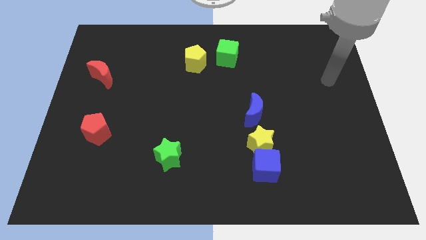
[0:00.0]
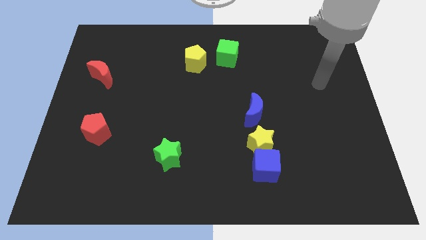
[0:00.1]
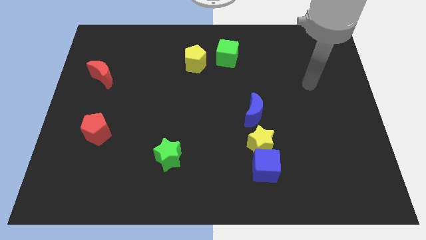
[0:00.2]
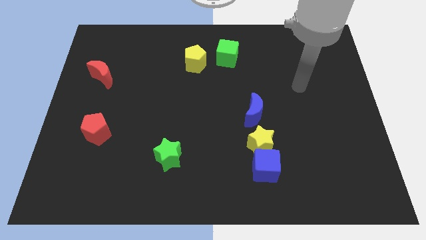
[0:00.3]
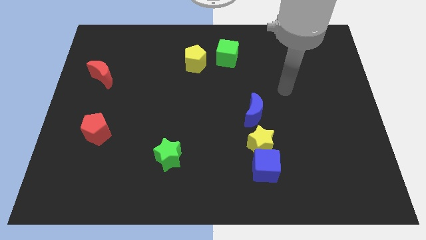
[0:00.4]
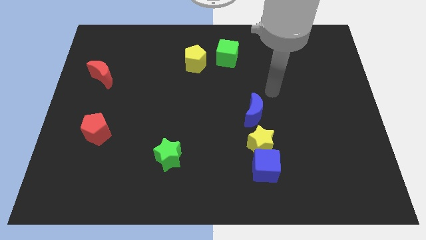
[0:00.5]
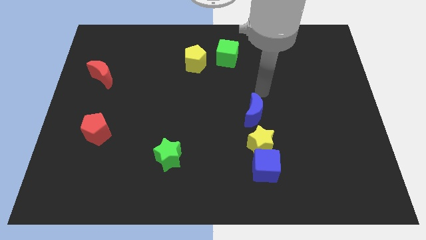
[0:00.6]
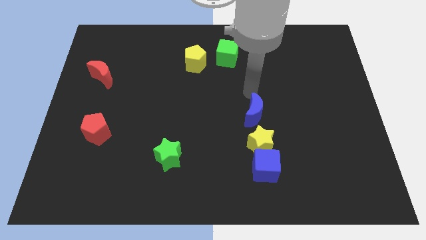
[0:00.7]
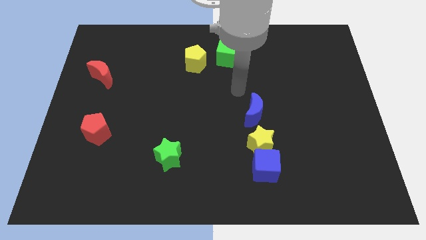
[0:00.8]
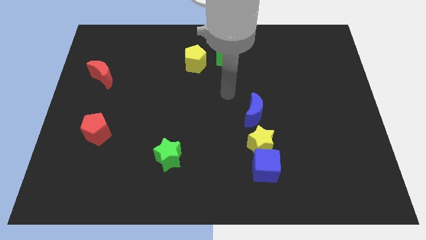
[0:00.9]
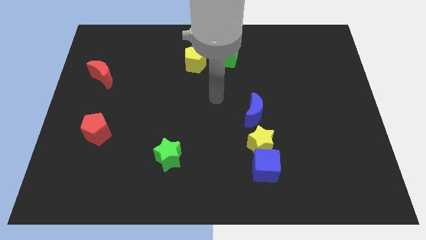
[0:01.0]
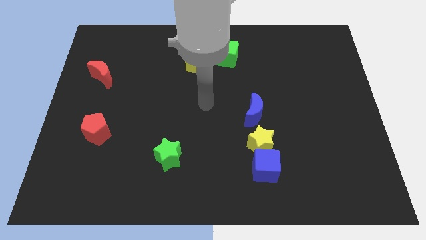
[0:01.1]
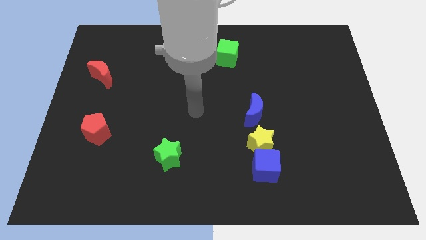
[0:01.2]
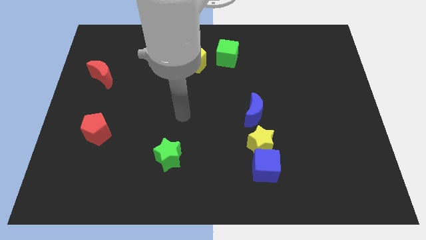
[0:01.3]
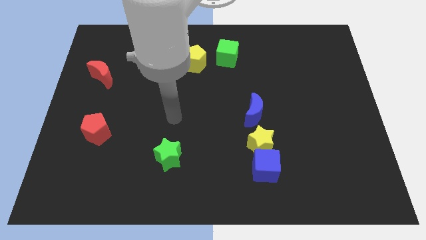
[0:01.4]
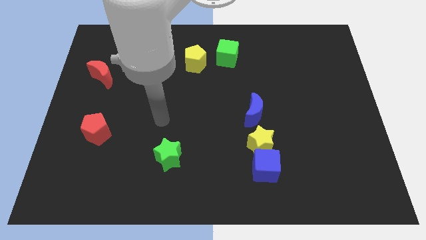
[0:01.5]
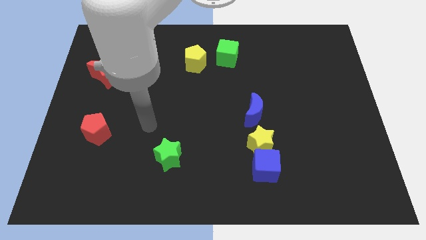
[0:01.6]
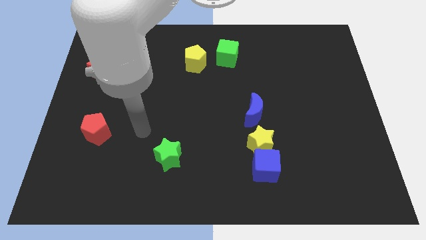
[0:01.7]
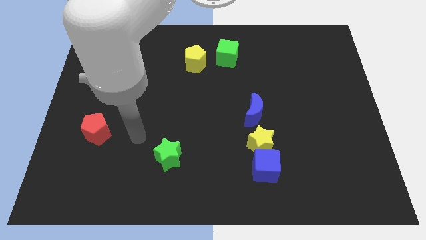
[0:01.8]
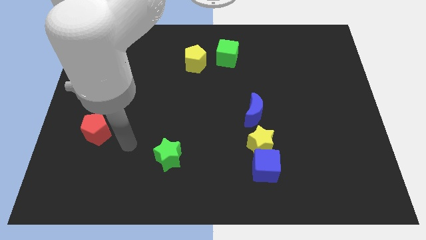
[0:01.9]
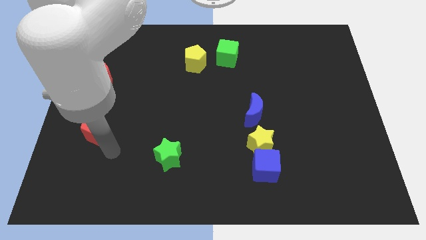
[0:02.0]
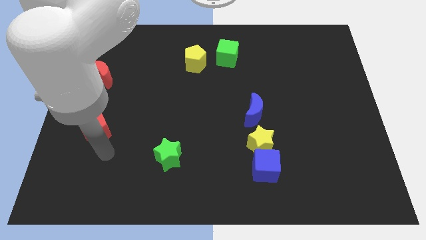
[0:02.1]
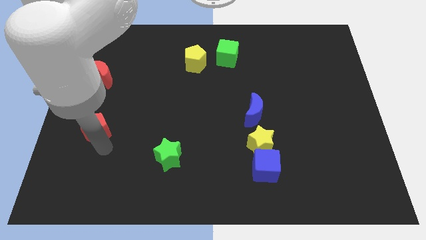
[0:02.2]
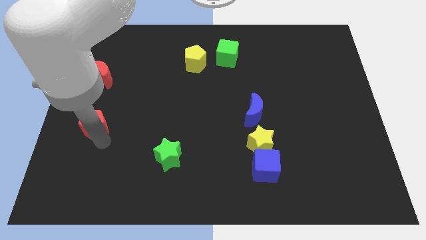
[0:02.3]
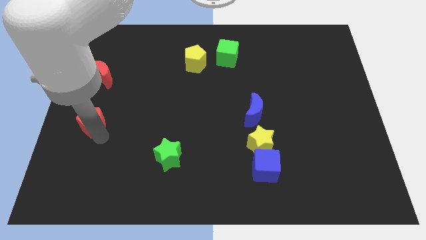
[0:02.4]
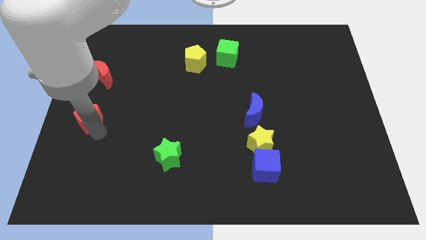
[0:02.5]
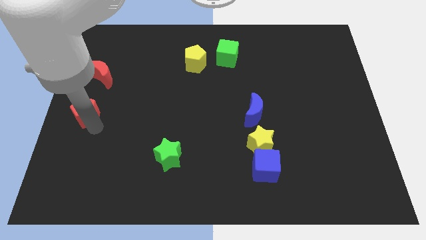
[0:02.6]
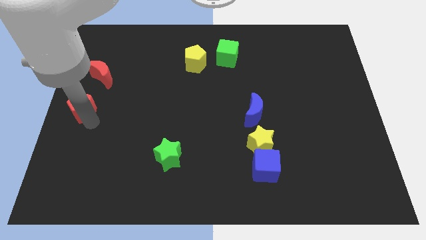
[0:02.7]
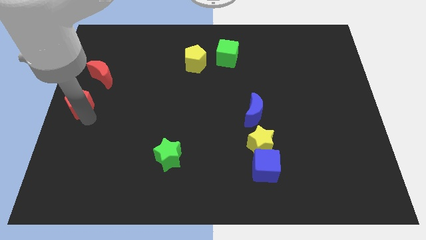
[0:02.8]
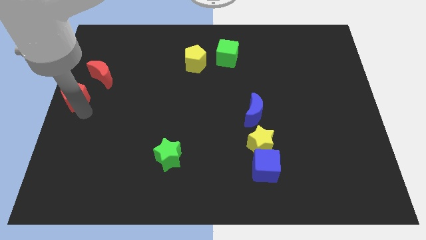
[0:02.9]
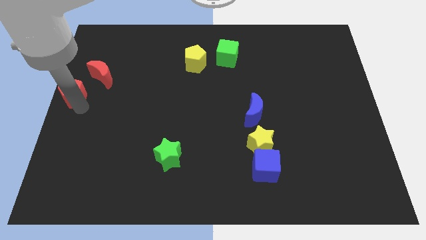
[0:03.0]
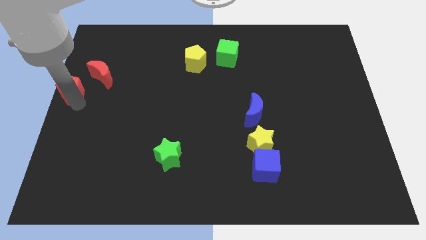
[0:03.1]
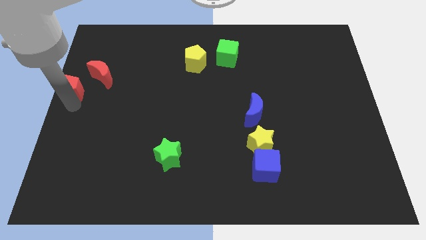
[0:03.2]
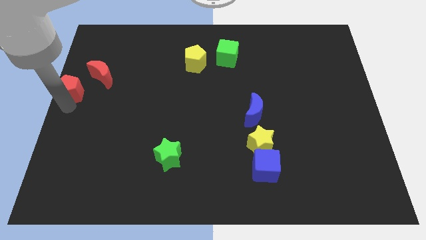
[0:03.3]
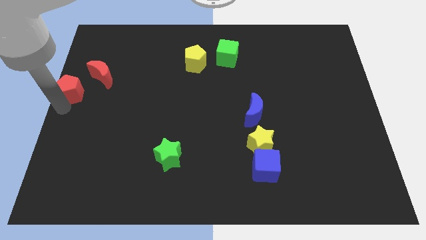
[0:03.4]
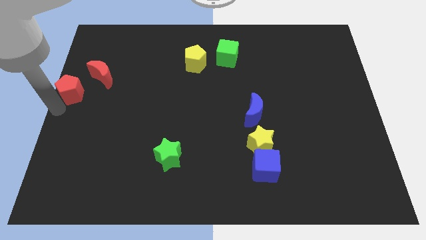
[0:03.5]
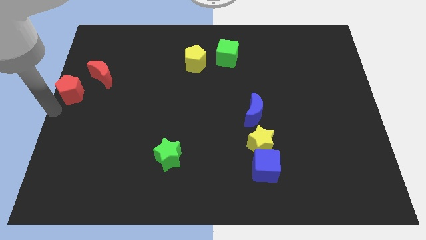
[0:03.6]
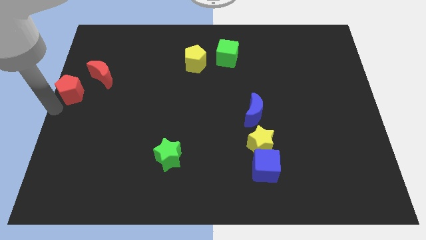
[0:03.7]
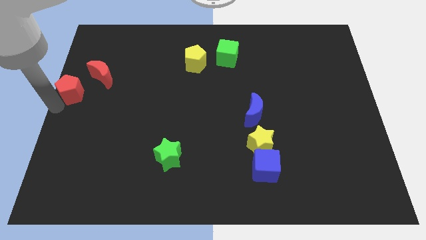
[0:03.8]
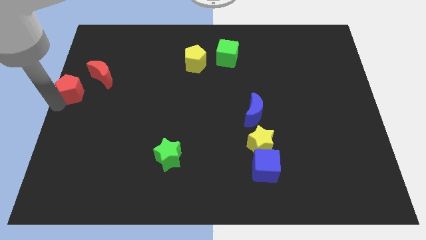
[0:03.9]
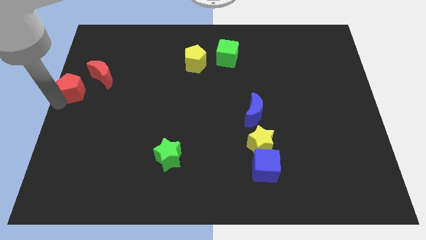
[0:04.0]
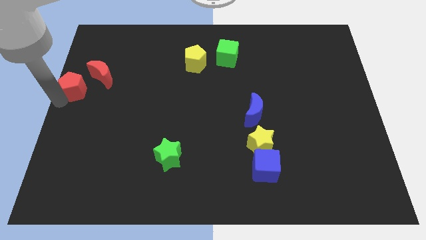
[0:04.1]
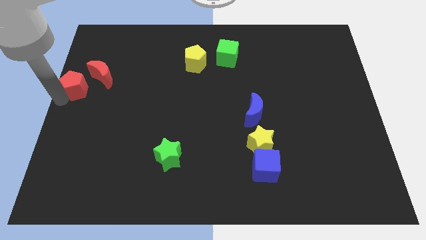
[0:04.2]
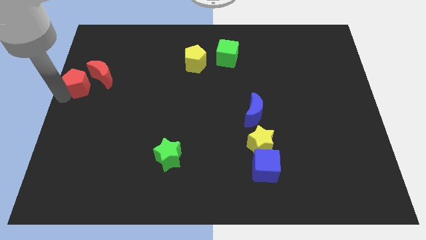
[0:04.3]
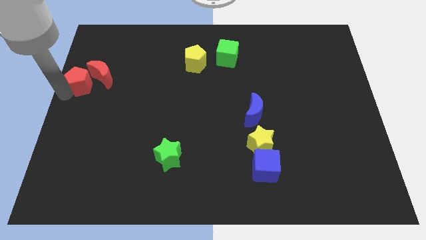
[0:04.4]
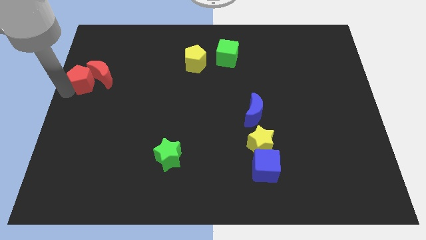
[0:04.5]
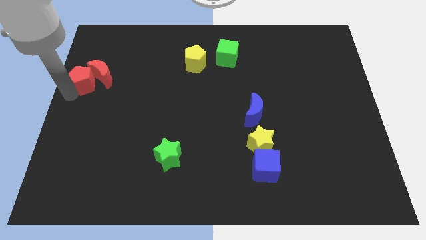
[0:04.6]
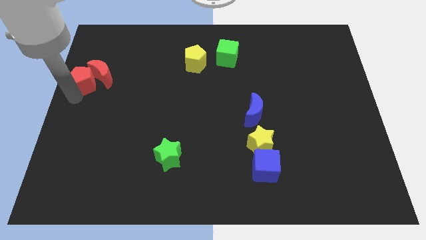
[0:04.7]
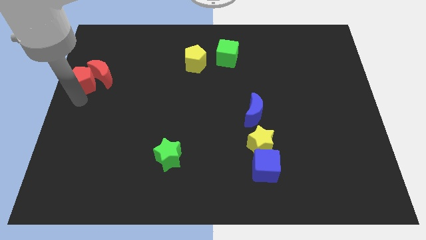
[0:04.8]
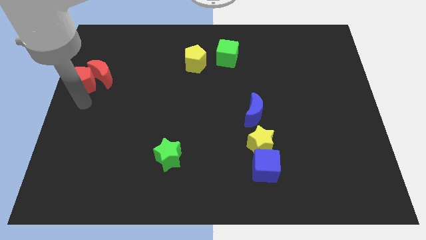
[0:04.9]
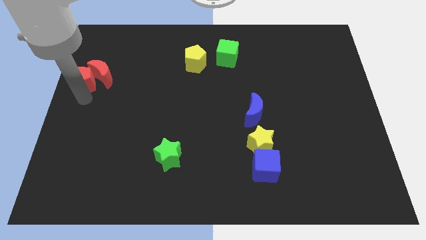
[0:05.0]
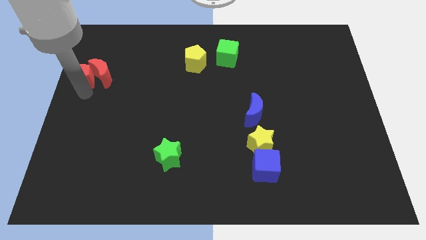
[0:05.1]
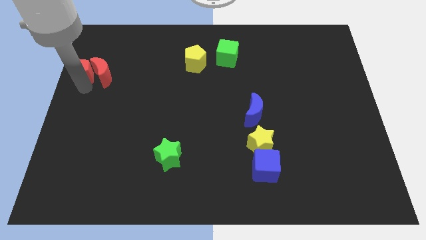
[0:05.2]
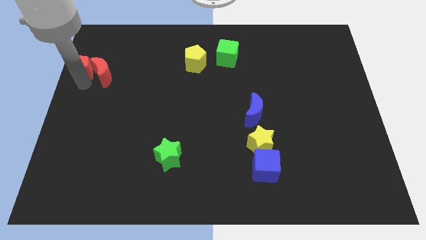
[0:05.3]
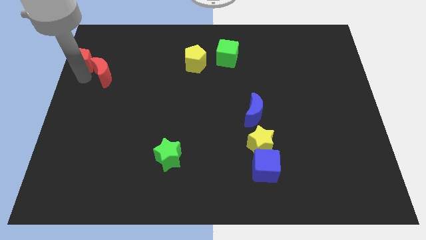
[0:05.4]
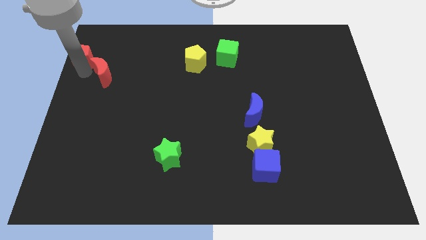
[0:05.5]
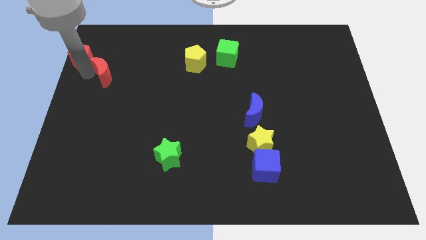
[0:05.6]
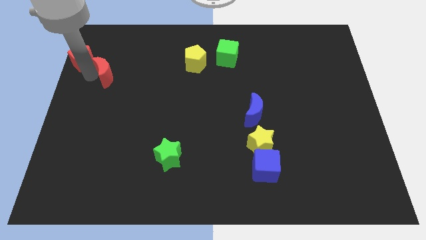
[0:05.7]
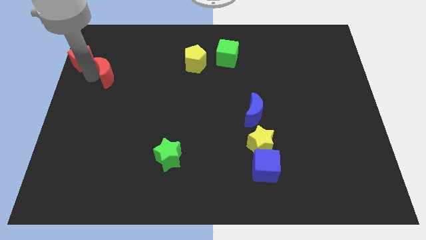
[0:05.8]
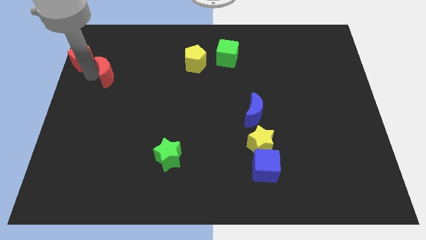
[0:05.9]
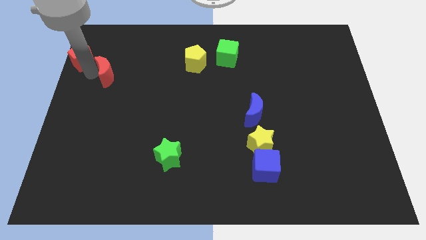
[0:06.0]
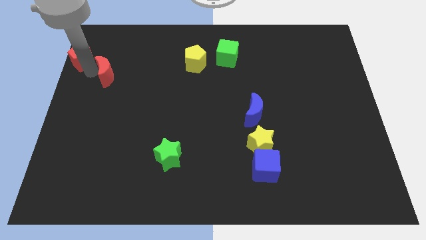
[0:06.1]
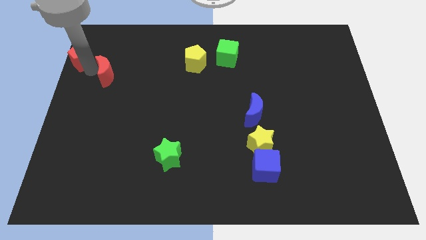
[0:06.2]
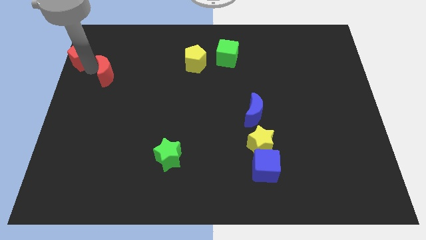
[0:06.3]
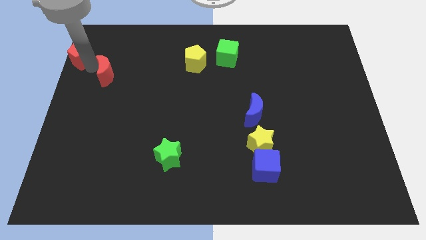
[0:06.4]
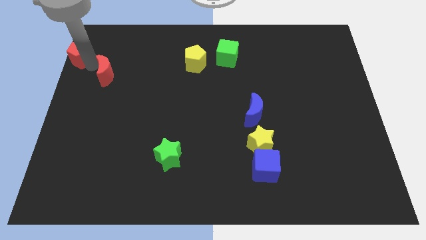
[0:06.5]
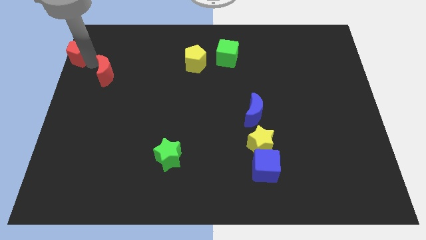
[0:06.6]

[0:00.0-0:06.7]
push the red pentagon to the top left
